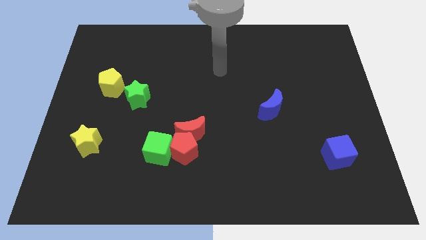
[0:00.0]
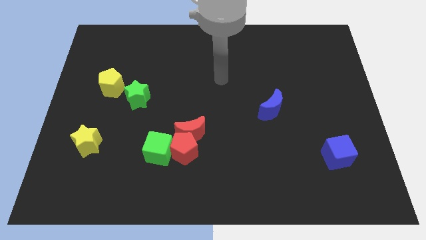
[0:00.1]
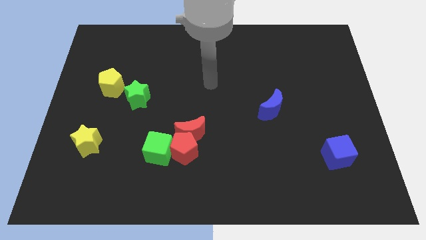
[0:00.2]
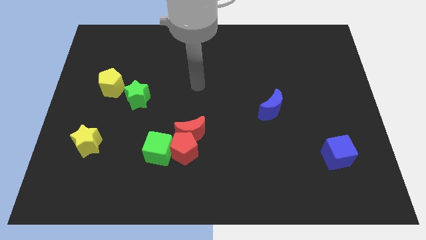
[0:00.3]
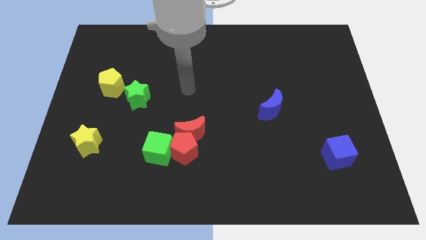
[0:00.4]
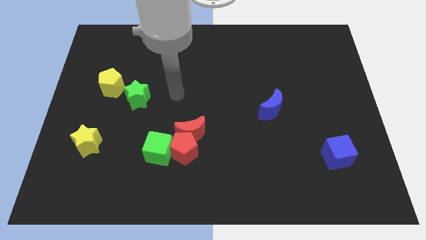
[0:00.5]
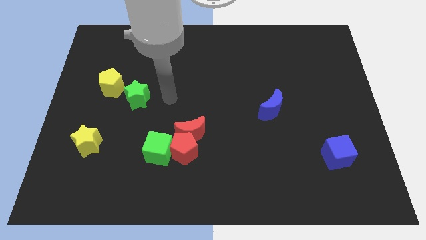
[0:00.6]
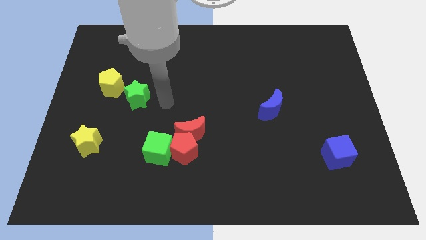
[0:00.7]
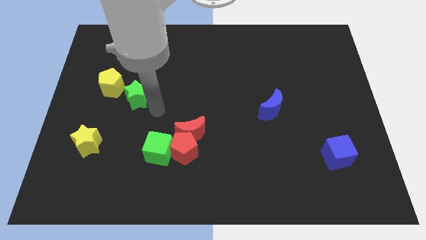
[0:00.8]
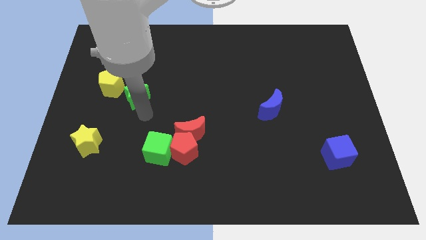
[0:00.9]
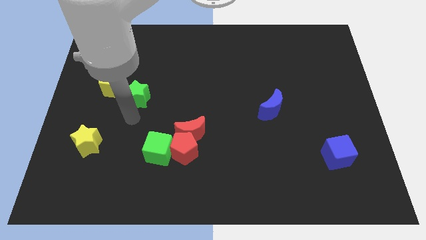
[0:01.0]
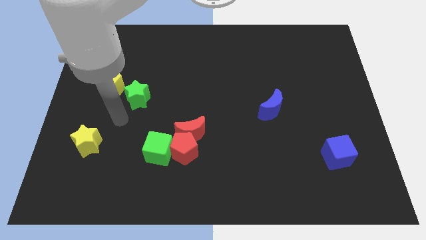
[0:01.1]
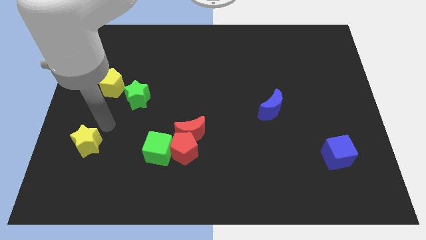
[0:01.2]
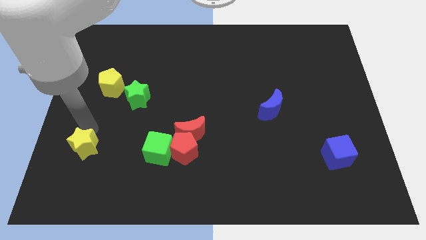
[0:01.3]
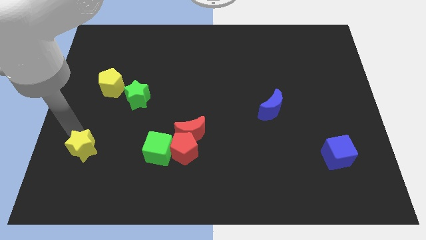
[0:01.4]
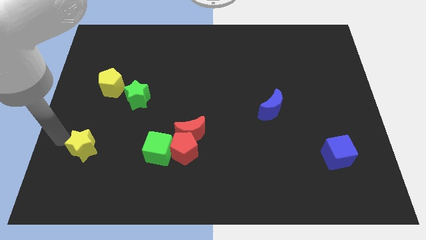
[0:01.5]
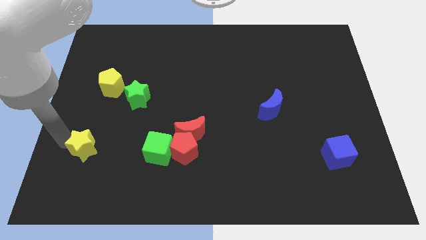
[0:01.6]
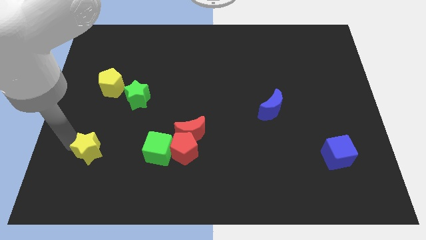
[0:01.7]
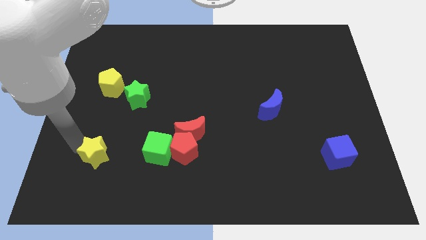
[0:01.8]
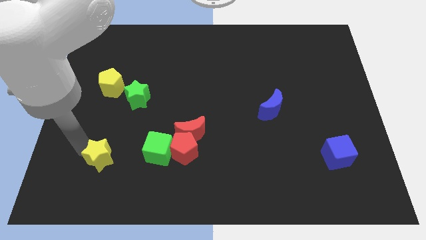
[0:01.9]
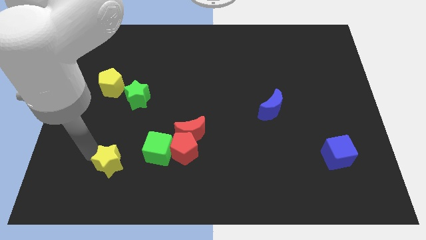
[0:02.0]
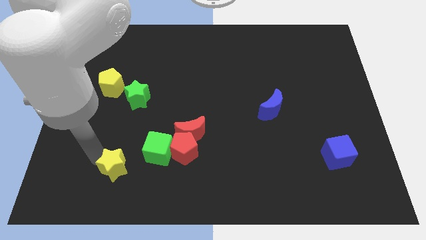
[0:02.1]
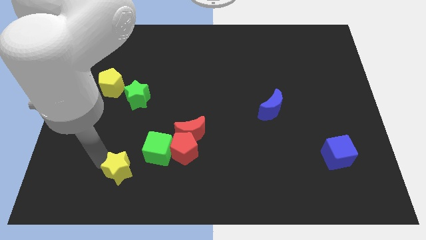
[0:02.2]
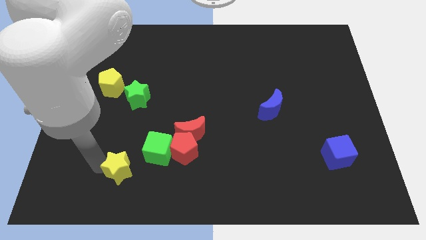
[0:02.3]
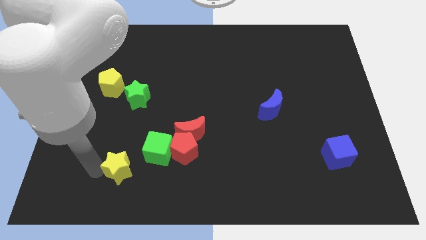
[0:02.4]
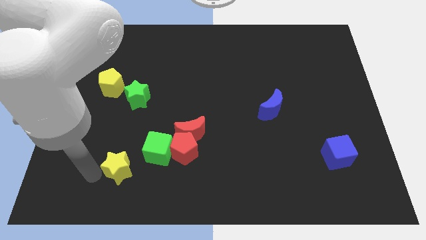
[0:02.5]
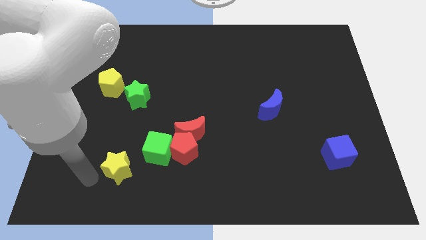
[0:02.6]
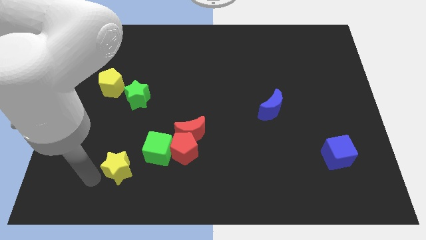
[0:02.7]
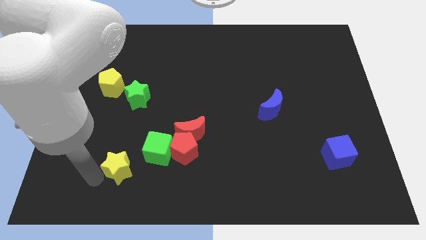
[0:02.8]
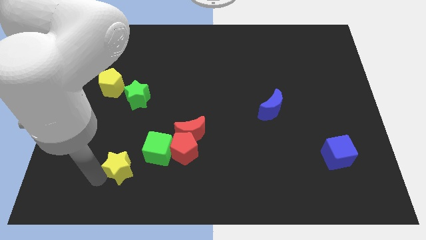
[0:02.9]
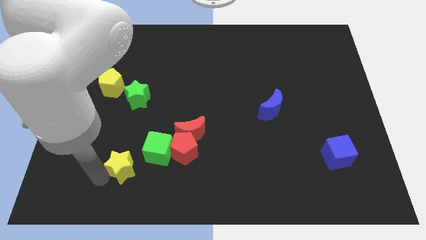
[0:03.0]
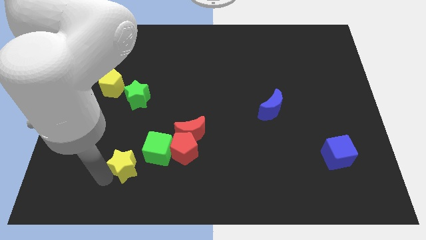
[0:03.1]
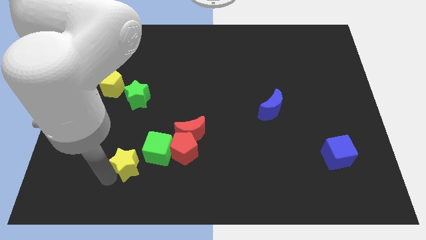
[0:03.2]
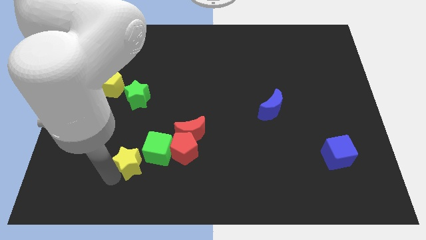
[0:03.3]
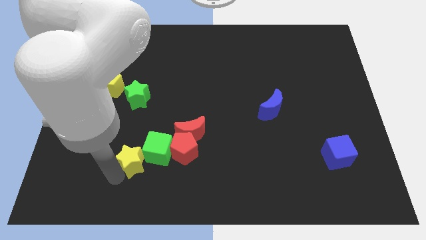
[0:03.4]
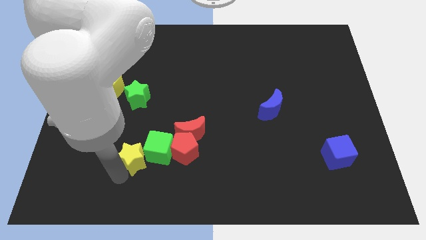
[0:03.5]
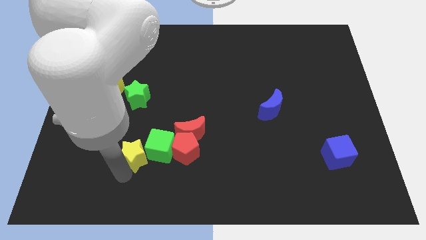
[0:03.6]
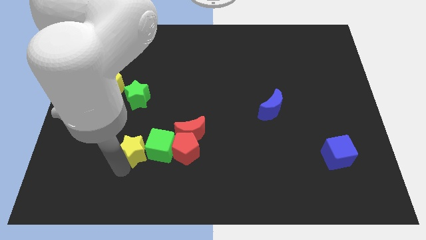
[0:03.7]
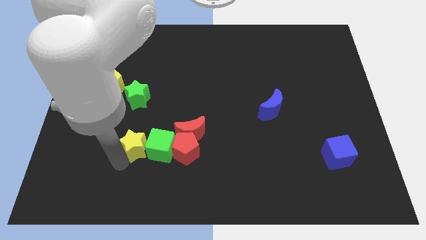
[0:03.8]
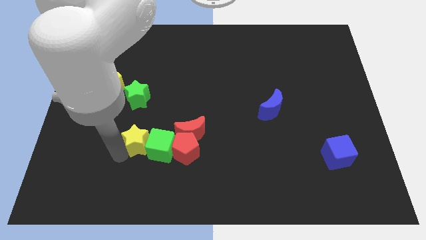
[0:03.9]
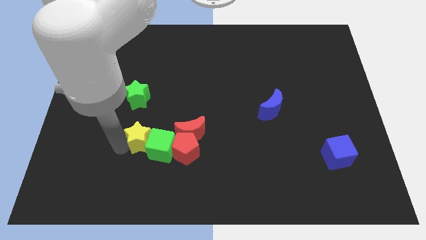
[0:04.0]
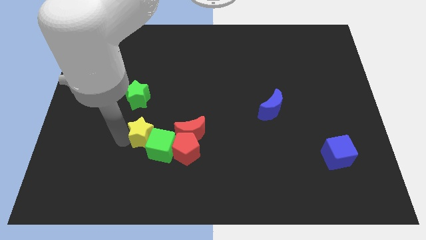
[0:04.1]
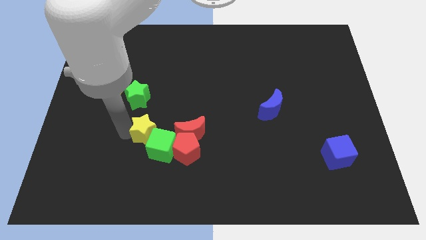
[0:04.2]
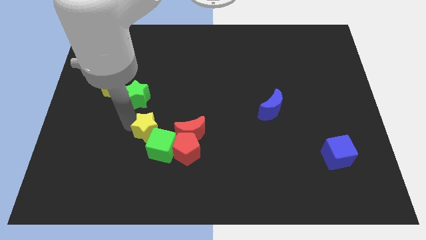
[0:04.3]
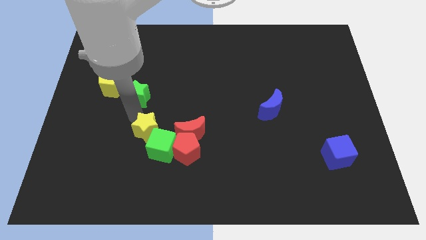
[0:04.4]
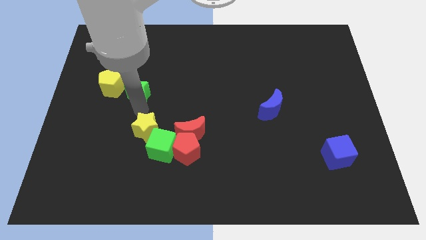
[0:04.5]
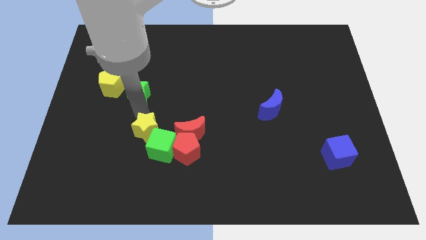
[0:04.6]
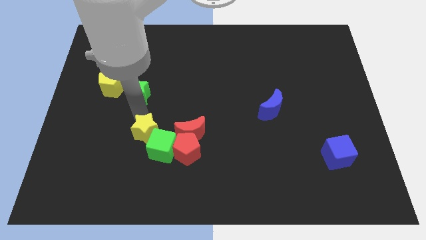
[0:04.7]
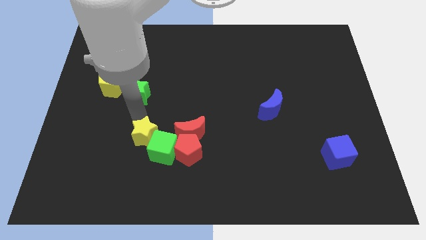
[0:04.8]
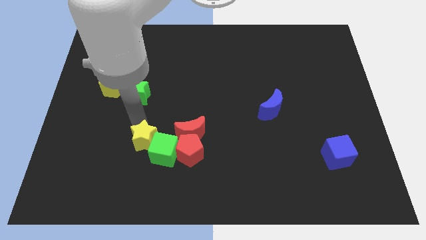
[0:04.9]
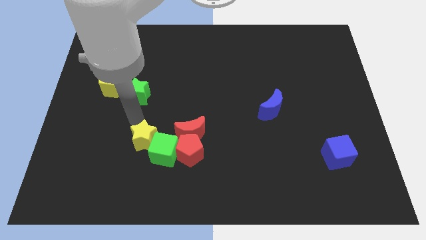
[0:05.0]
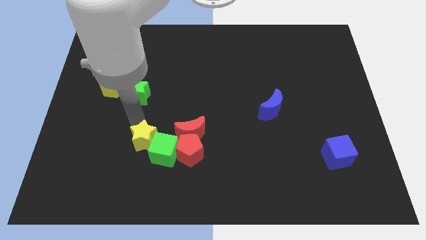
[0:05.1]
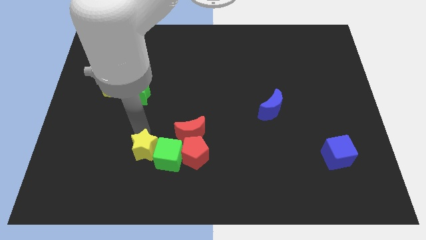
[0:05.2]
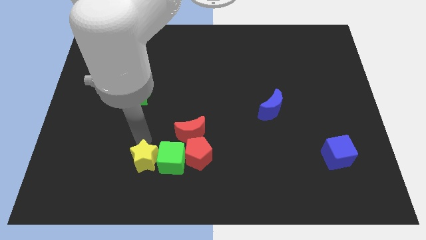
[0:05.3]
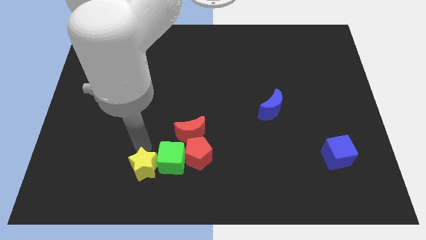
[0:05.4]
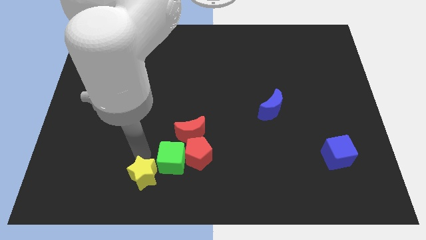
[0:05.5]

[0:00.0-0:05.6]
move the yellow star diagonally down and to the left of the red pentagon

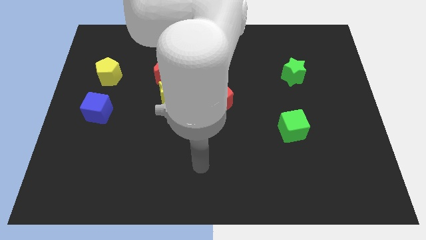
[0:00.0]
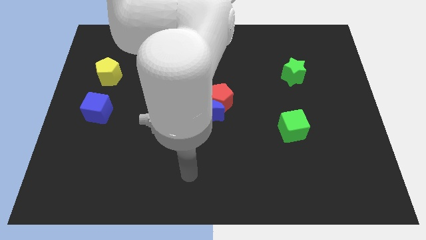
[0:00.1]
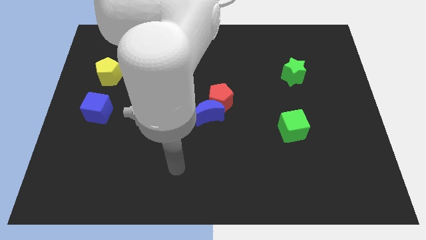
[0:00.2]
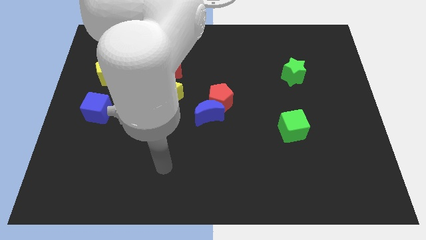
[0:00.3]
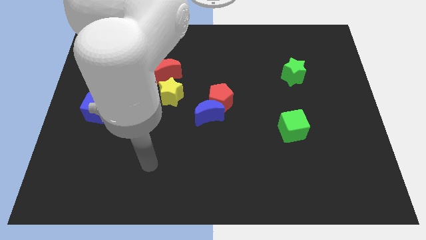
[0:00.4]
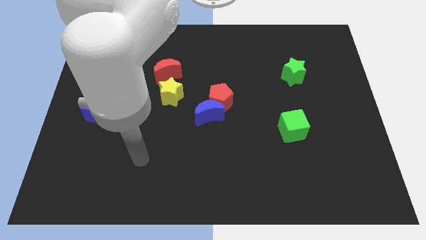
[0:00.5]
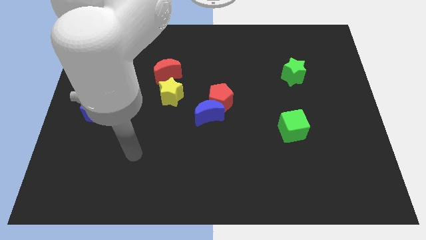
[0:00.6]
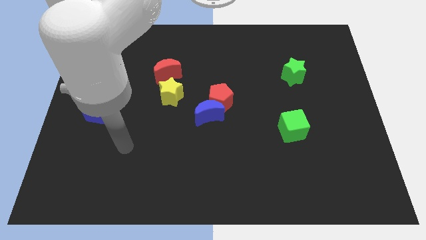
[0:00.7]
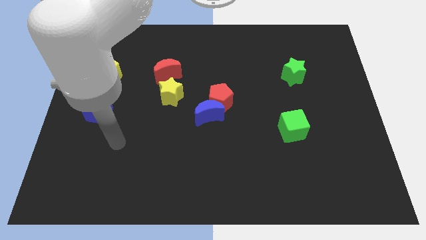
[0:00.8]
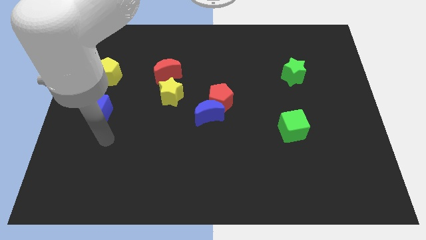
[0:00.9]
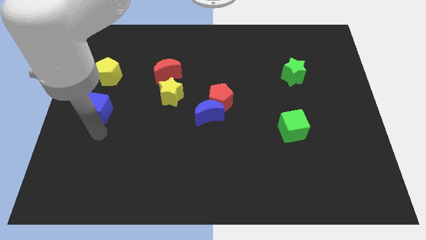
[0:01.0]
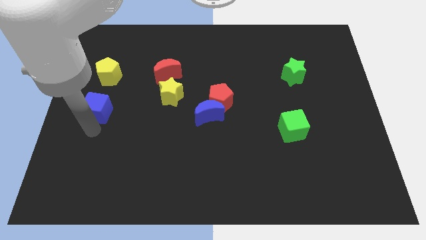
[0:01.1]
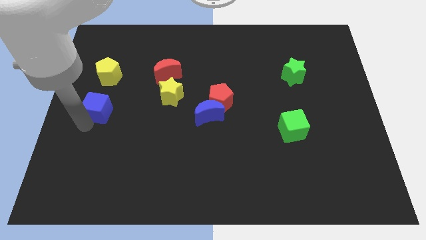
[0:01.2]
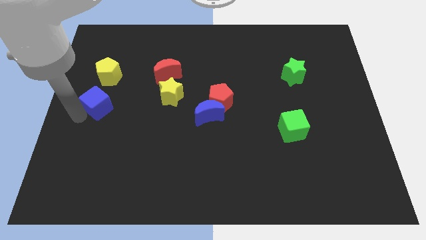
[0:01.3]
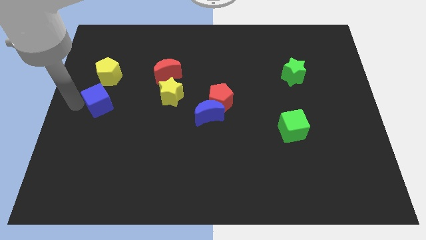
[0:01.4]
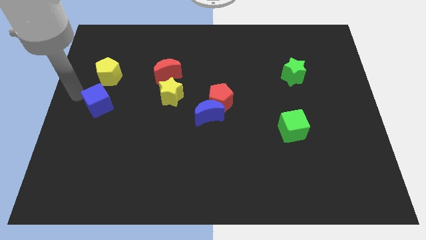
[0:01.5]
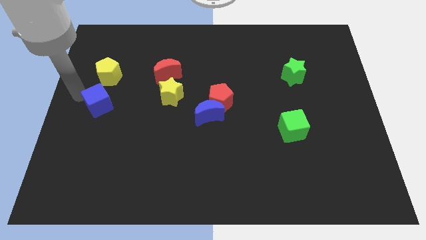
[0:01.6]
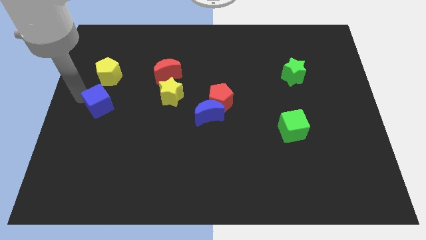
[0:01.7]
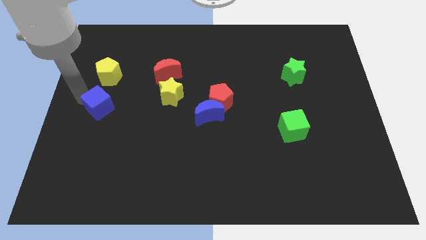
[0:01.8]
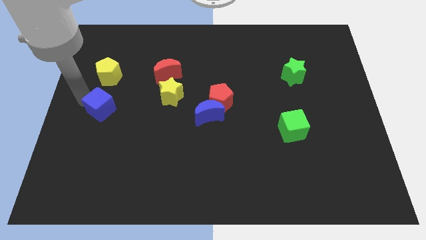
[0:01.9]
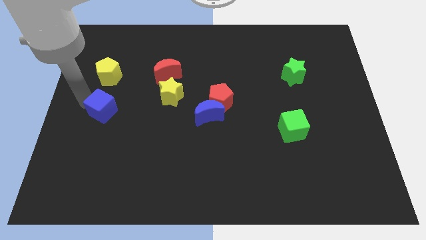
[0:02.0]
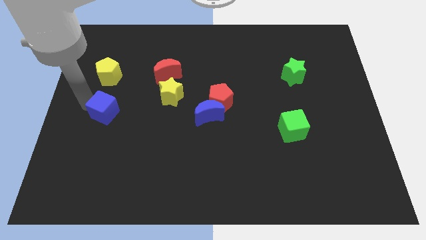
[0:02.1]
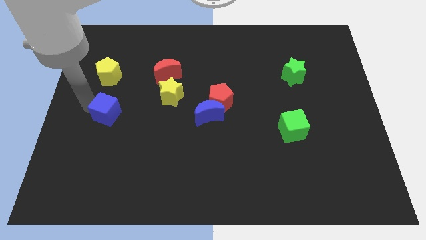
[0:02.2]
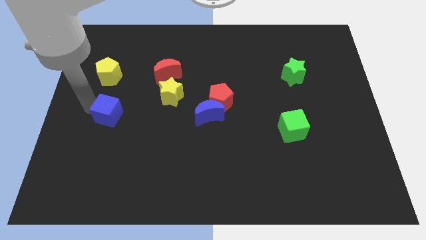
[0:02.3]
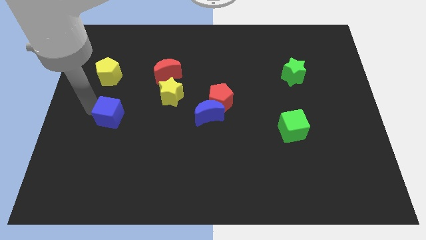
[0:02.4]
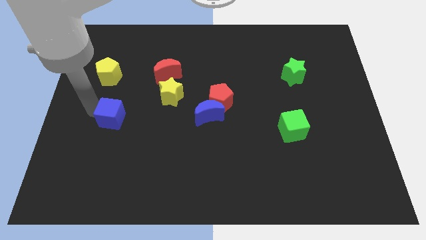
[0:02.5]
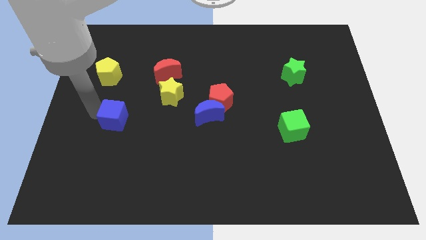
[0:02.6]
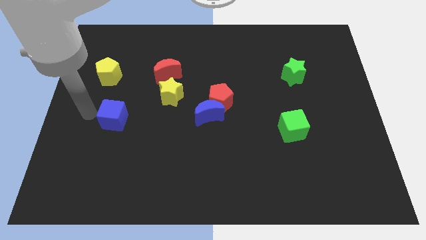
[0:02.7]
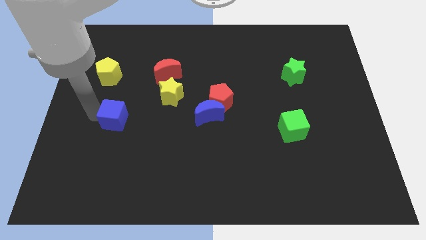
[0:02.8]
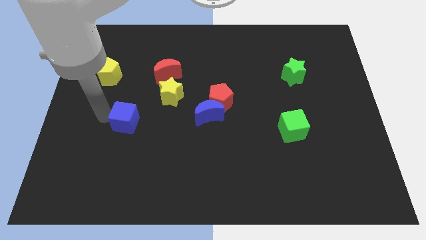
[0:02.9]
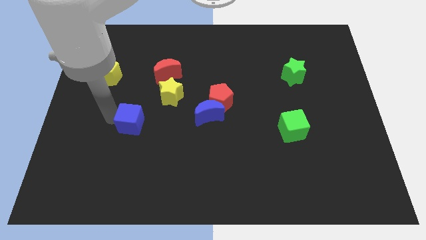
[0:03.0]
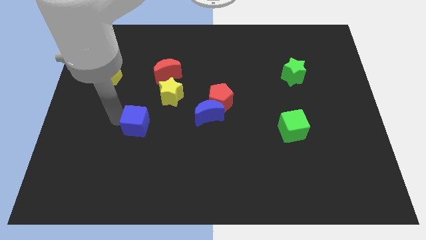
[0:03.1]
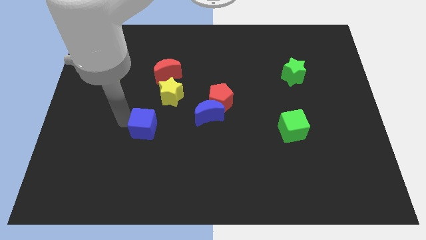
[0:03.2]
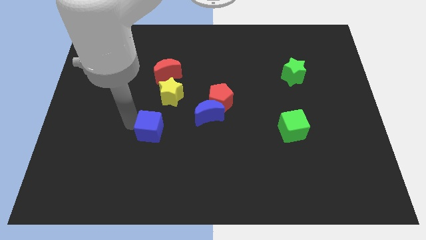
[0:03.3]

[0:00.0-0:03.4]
slide the blue cube below the yellow star
